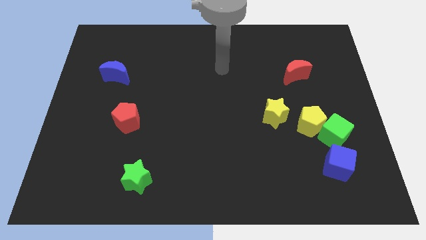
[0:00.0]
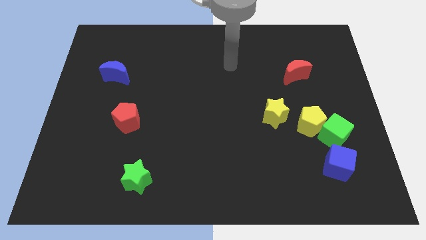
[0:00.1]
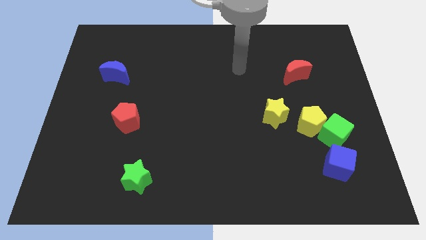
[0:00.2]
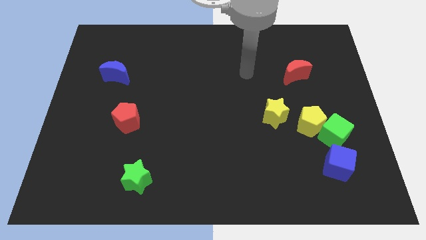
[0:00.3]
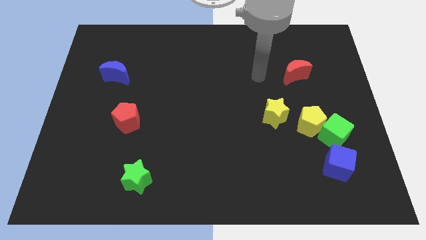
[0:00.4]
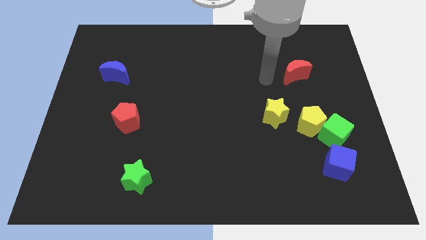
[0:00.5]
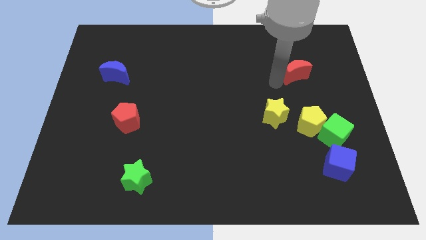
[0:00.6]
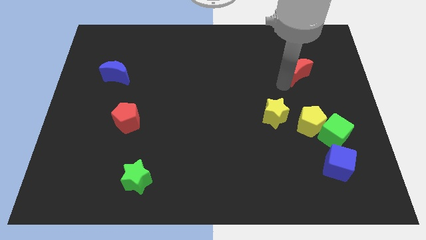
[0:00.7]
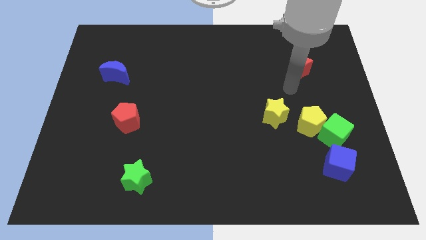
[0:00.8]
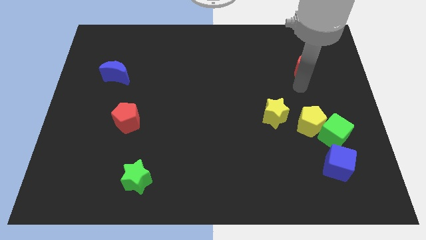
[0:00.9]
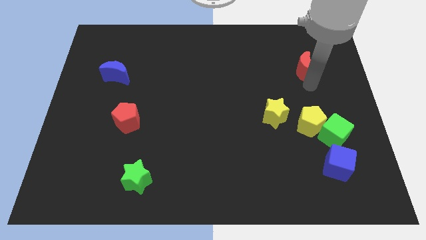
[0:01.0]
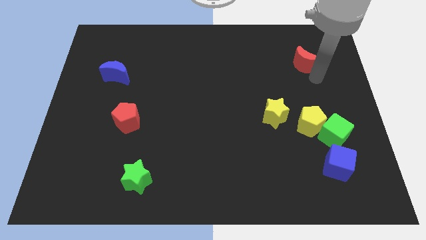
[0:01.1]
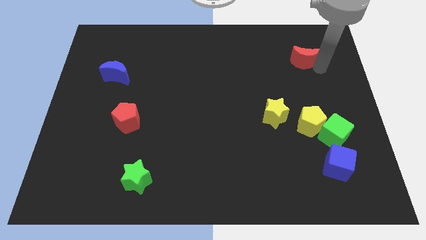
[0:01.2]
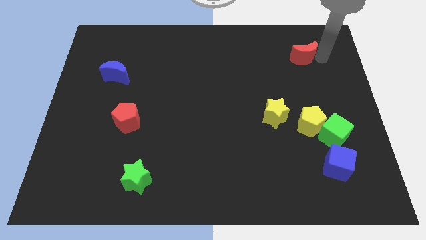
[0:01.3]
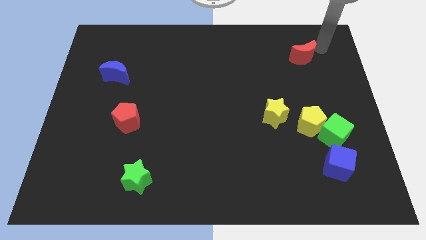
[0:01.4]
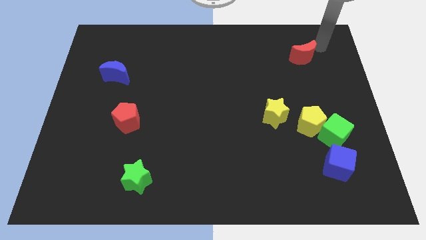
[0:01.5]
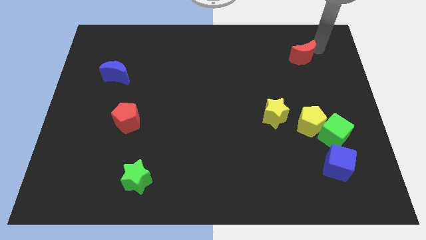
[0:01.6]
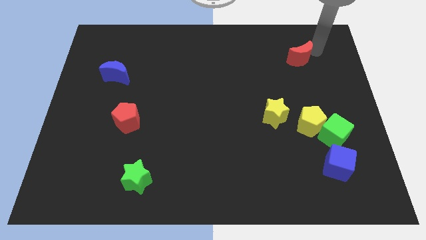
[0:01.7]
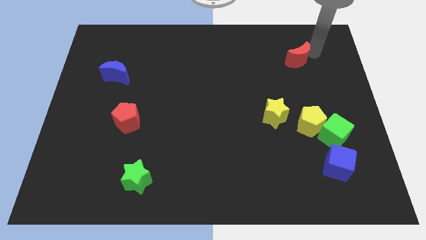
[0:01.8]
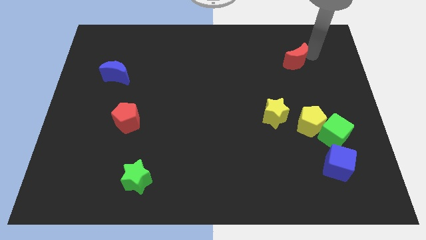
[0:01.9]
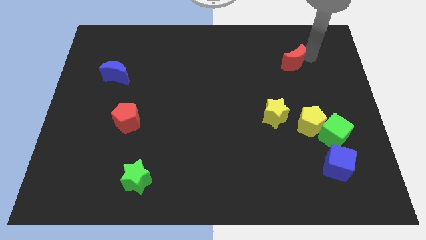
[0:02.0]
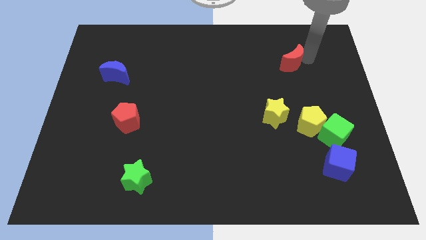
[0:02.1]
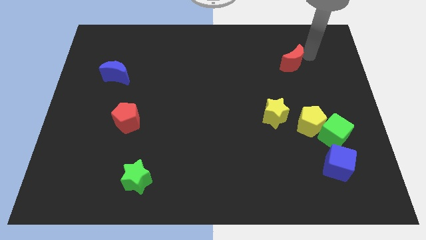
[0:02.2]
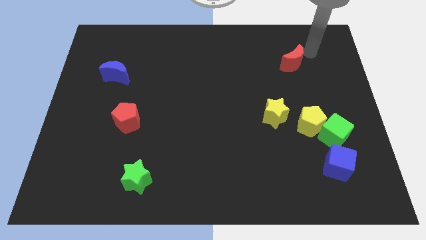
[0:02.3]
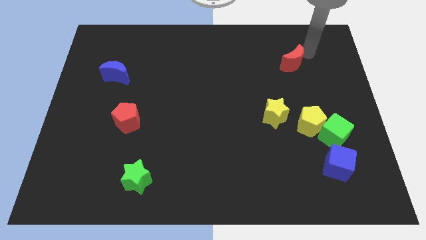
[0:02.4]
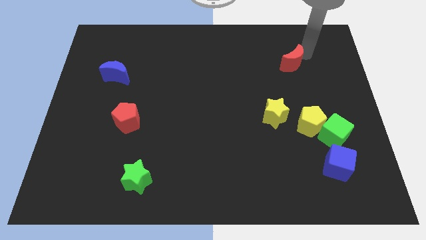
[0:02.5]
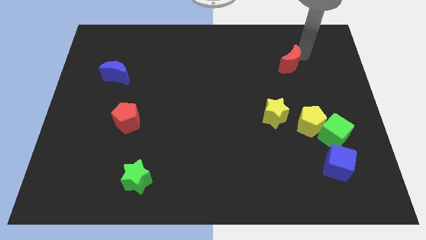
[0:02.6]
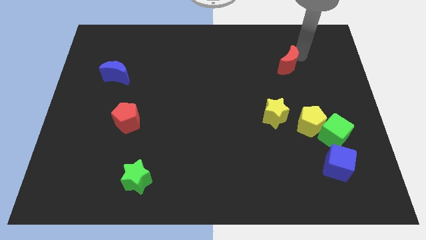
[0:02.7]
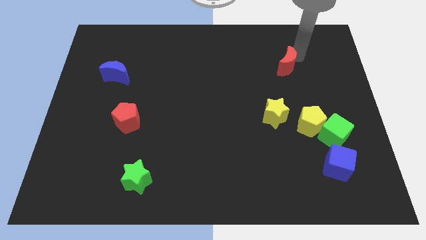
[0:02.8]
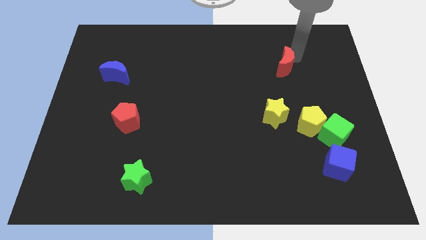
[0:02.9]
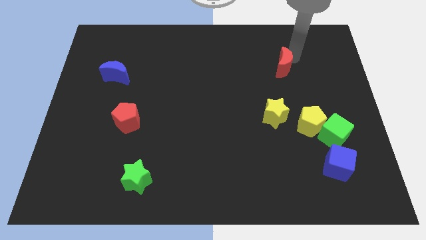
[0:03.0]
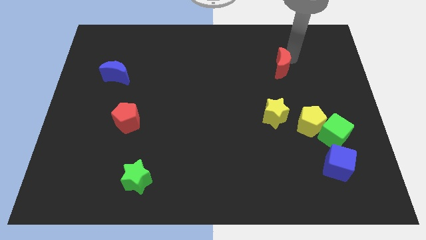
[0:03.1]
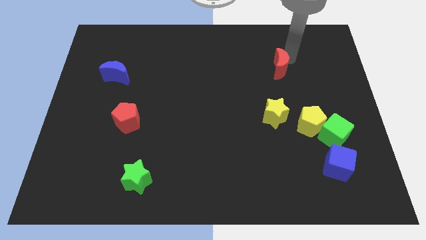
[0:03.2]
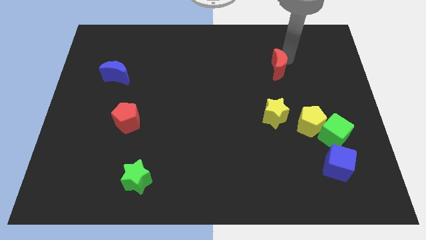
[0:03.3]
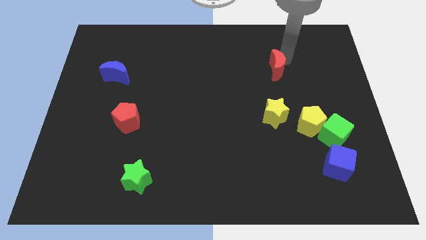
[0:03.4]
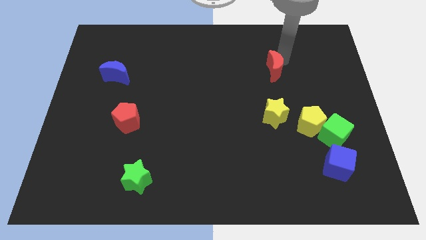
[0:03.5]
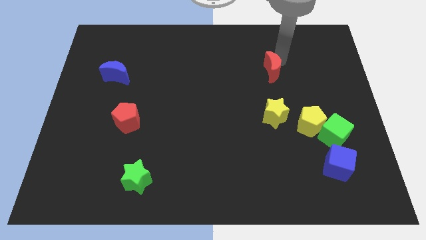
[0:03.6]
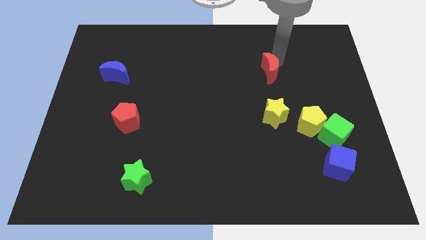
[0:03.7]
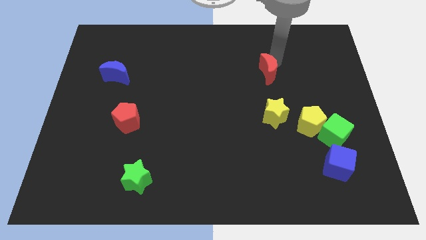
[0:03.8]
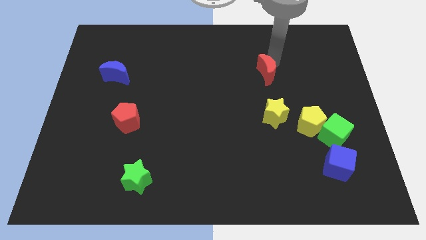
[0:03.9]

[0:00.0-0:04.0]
slide the red moon to the left a bit

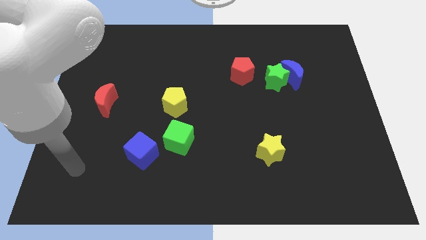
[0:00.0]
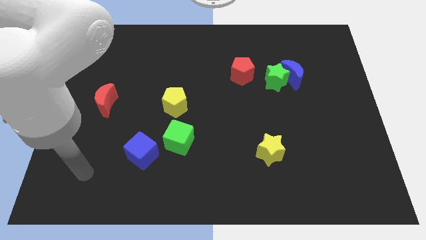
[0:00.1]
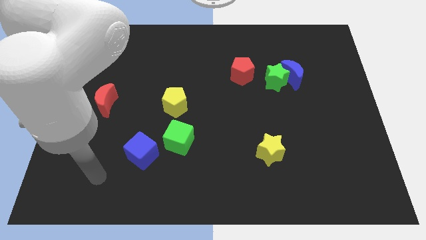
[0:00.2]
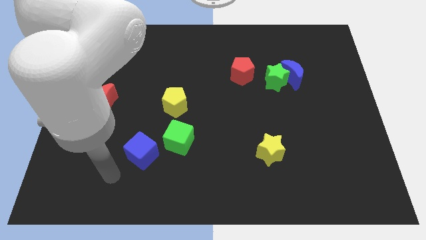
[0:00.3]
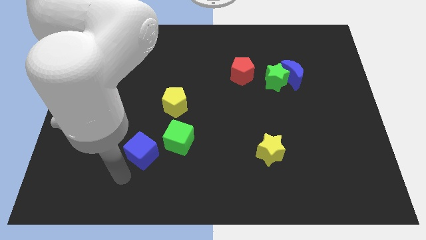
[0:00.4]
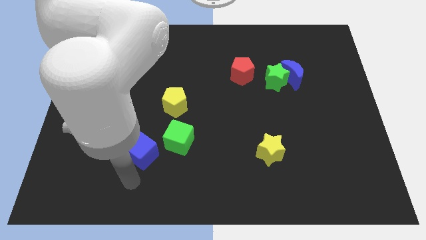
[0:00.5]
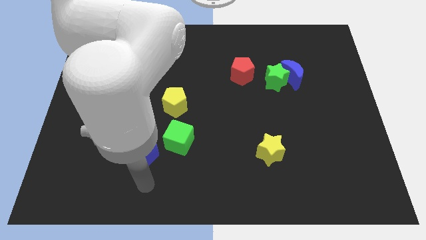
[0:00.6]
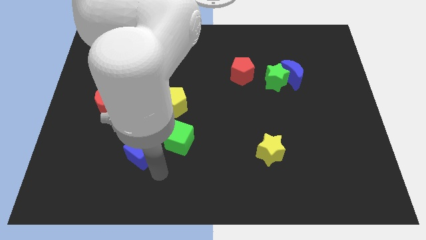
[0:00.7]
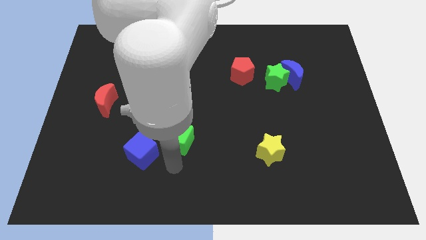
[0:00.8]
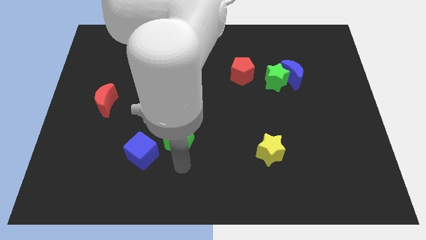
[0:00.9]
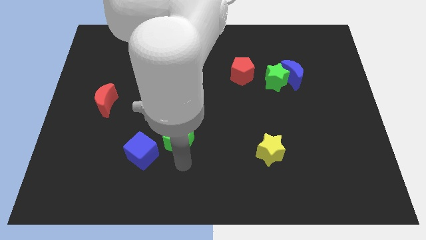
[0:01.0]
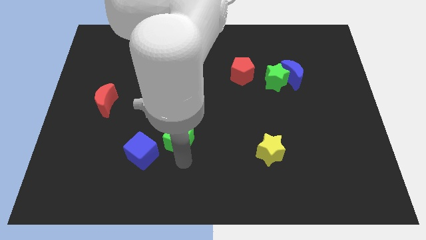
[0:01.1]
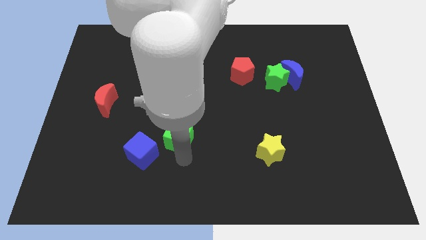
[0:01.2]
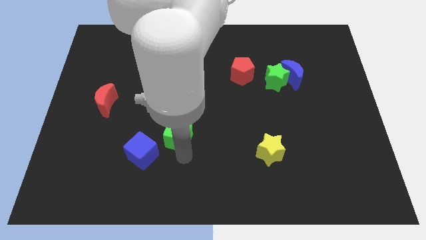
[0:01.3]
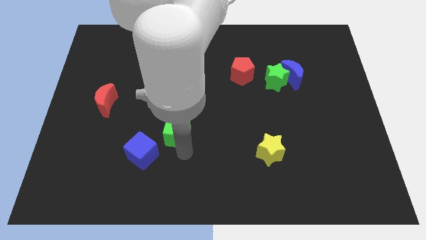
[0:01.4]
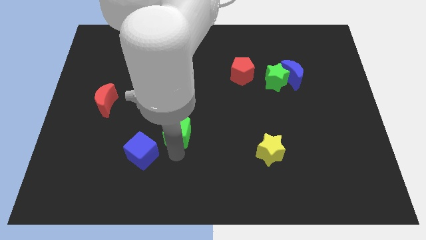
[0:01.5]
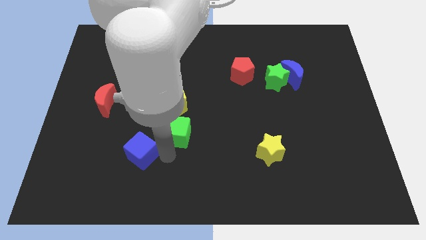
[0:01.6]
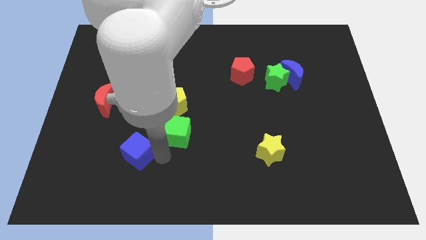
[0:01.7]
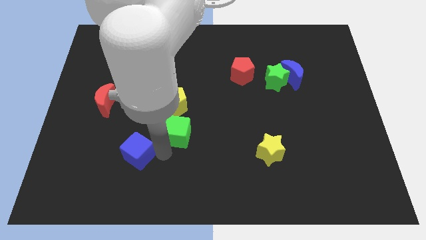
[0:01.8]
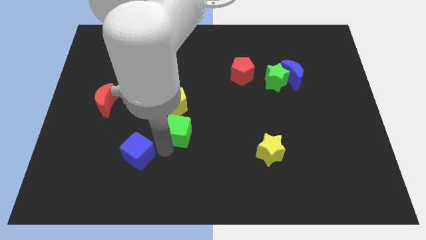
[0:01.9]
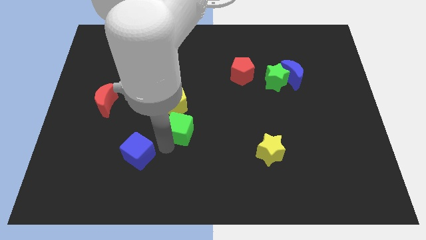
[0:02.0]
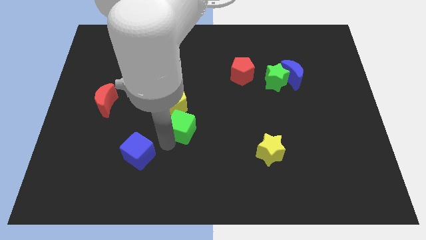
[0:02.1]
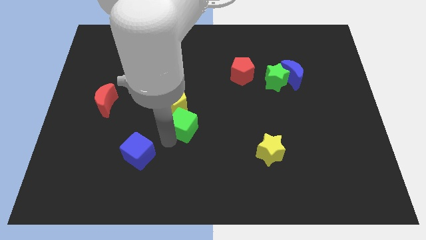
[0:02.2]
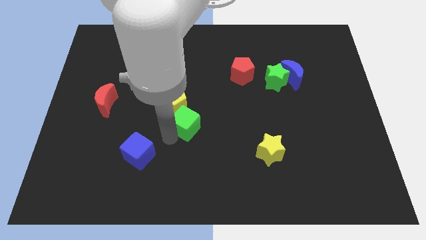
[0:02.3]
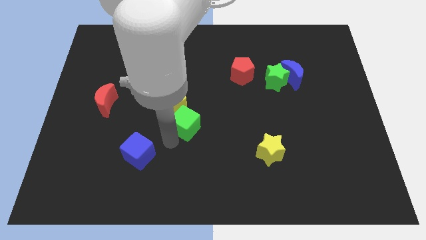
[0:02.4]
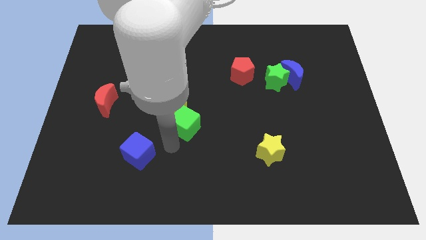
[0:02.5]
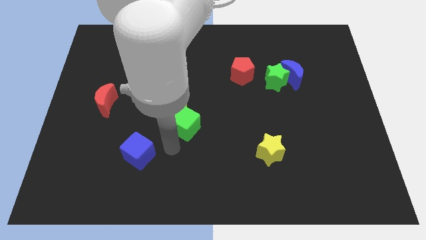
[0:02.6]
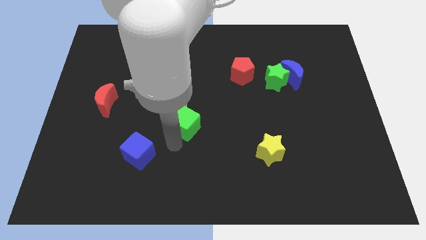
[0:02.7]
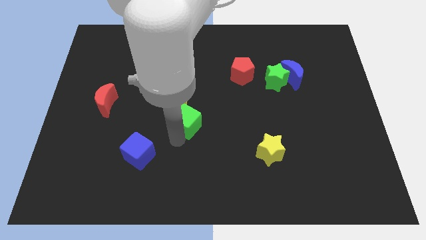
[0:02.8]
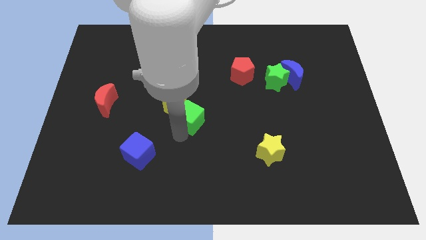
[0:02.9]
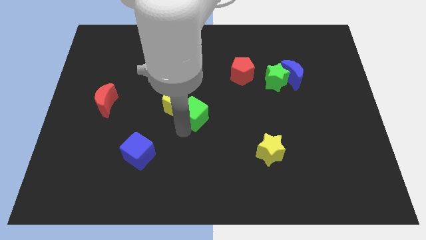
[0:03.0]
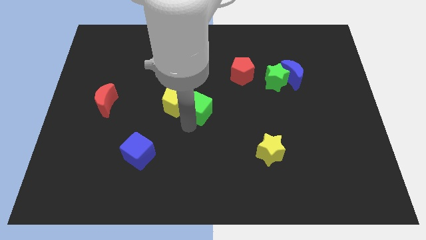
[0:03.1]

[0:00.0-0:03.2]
slide the green cube a little up

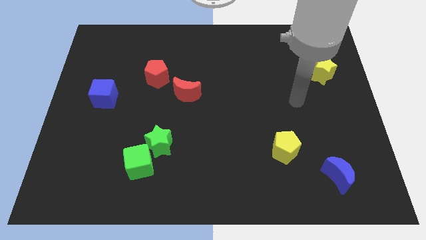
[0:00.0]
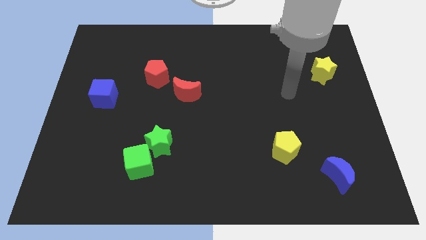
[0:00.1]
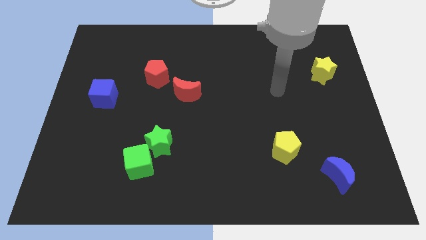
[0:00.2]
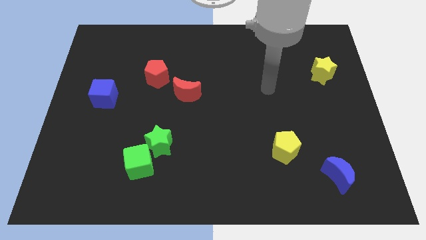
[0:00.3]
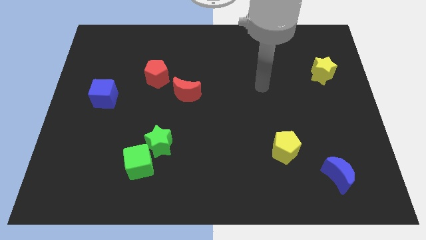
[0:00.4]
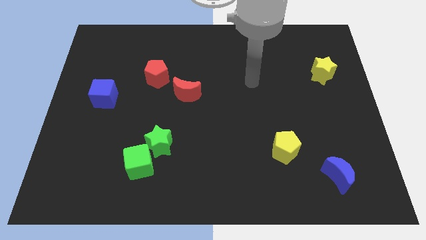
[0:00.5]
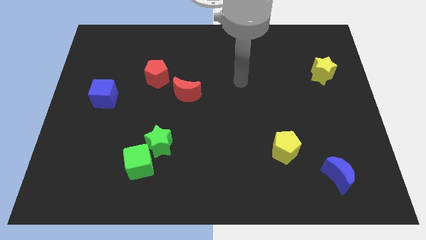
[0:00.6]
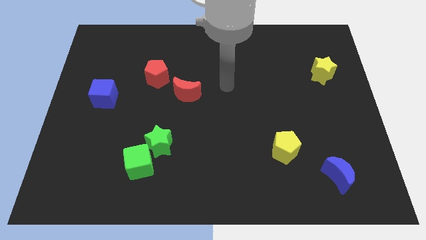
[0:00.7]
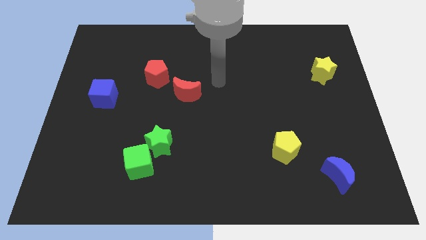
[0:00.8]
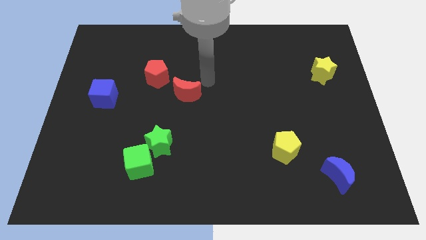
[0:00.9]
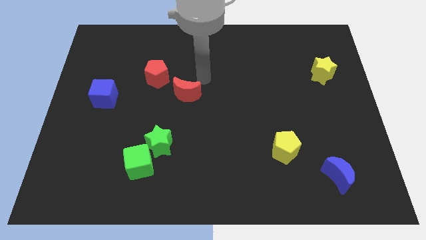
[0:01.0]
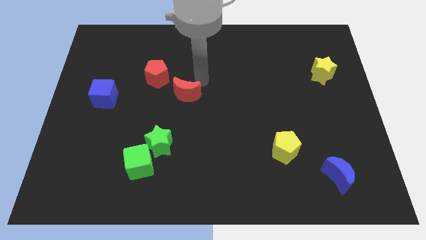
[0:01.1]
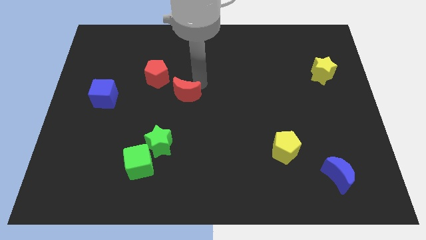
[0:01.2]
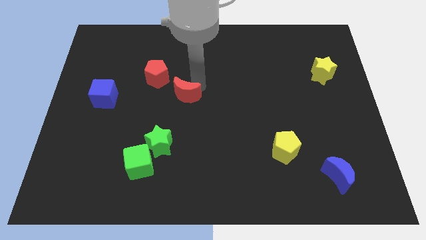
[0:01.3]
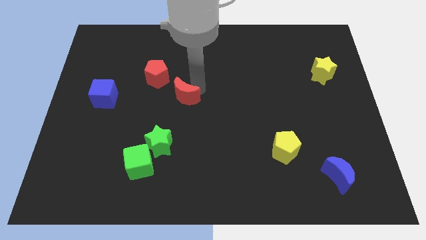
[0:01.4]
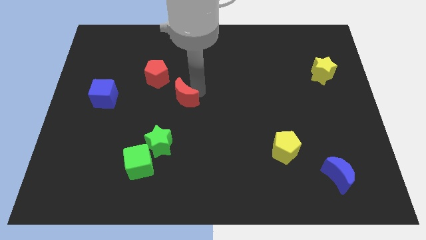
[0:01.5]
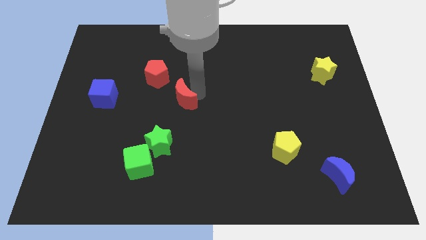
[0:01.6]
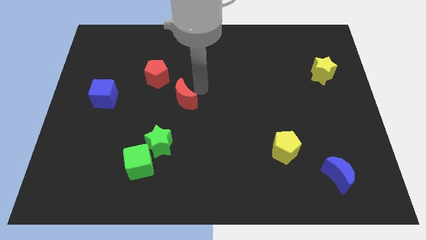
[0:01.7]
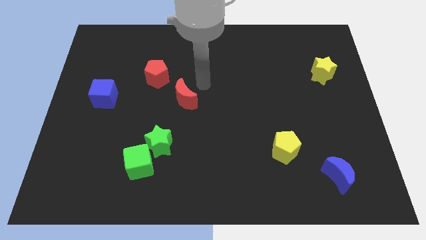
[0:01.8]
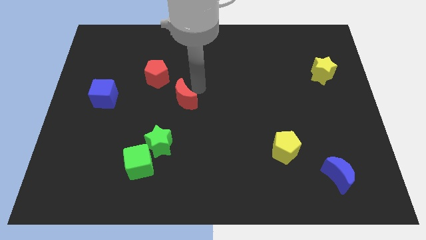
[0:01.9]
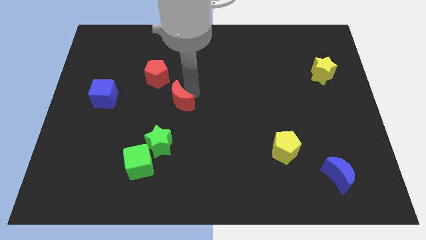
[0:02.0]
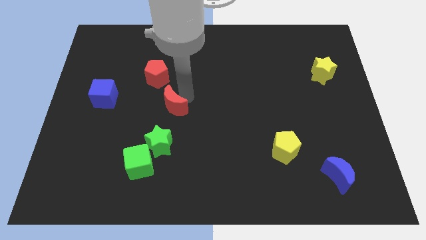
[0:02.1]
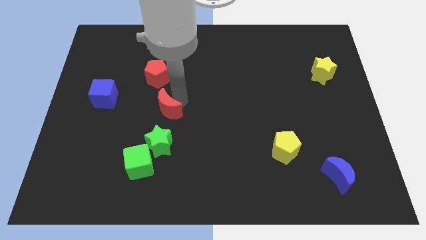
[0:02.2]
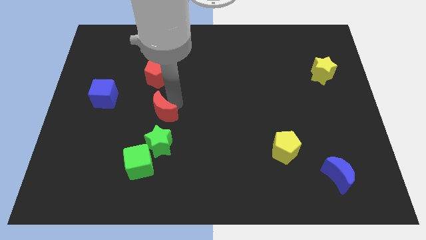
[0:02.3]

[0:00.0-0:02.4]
push the red moon downwards and then to the left slightly
